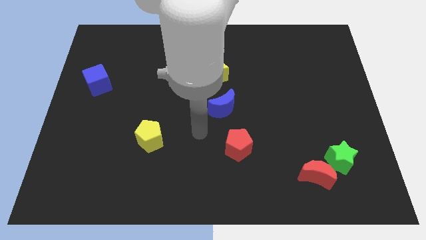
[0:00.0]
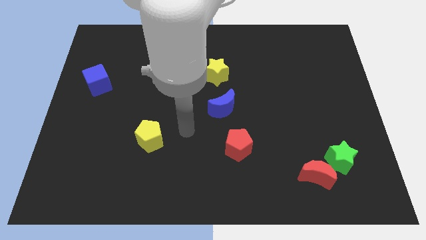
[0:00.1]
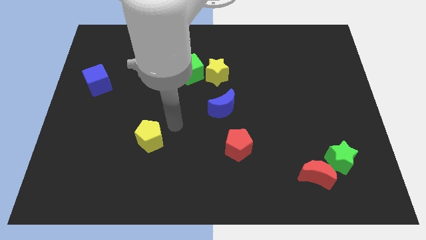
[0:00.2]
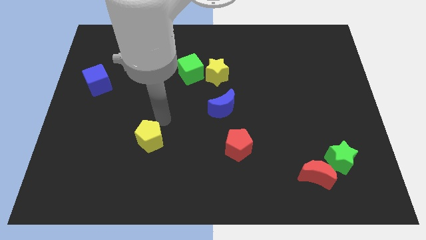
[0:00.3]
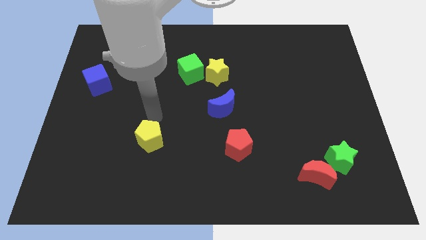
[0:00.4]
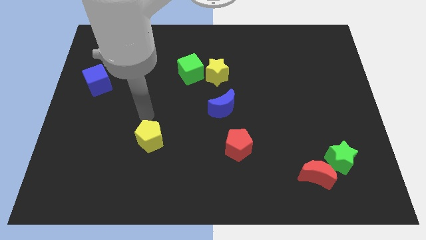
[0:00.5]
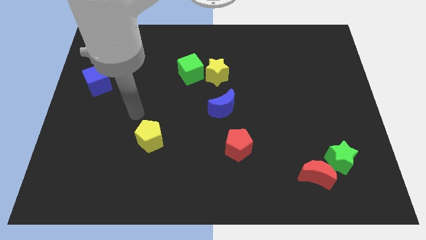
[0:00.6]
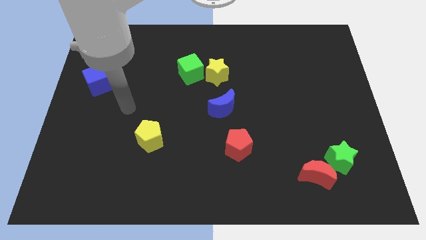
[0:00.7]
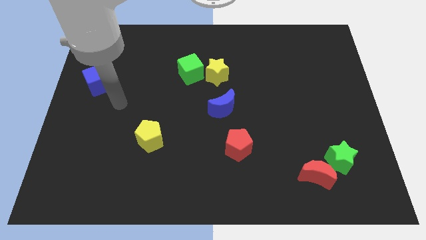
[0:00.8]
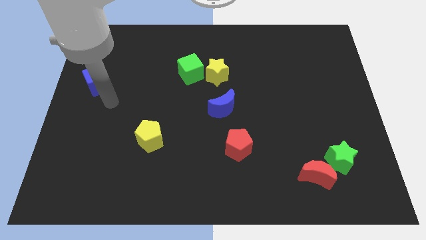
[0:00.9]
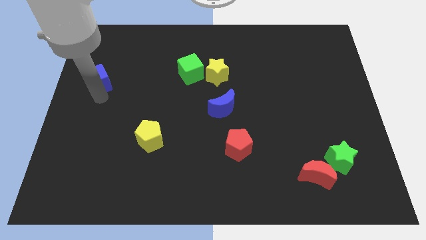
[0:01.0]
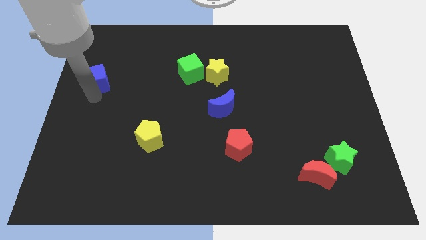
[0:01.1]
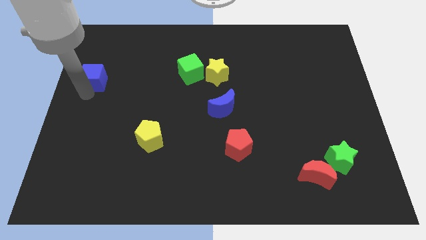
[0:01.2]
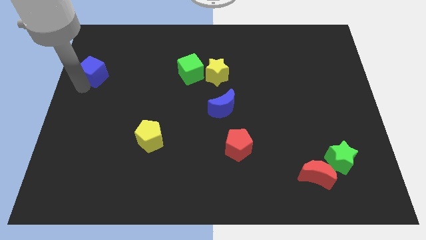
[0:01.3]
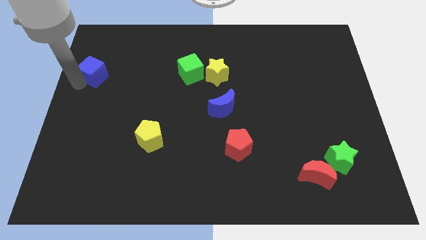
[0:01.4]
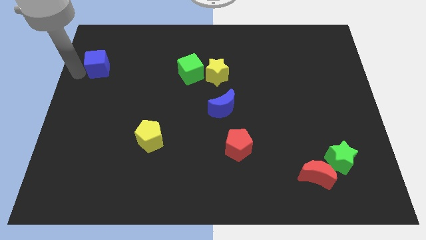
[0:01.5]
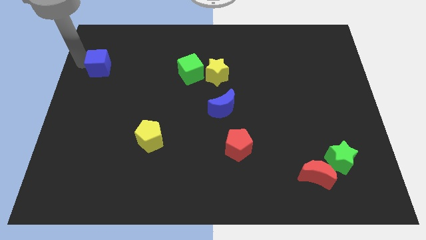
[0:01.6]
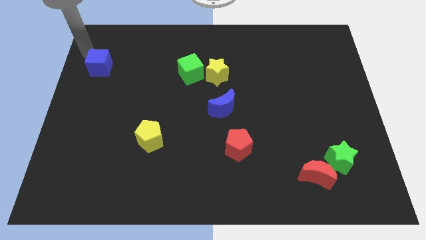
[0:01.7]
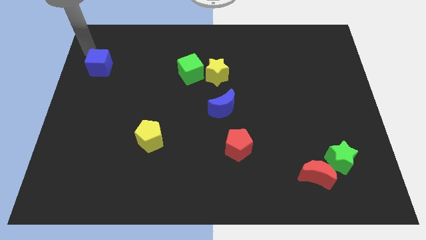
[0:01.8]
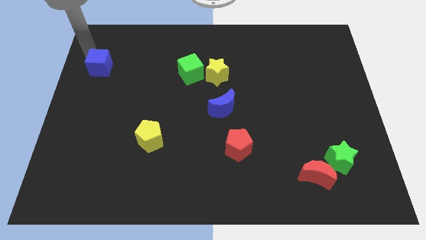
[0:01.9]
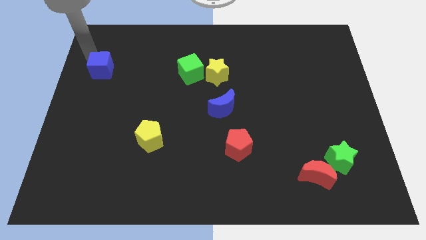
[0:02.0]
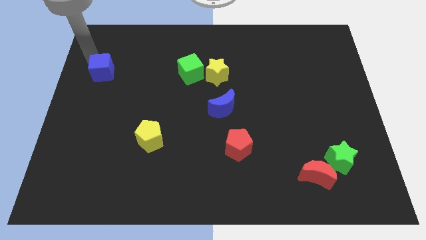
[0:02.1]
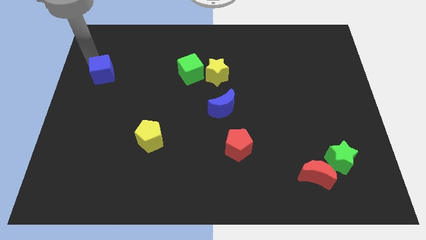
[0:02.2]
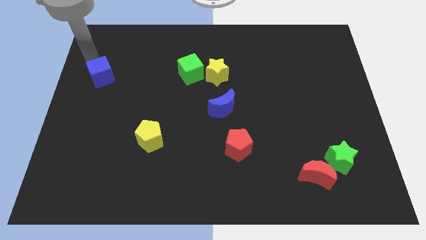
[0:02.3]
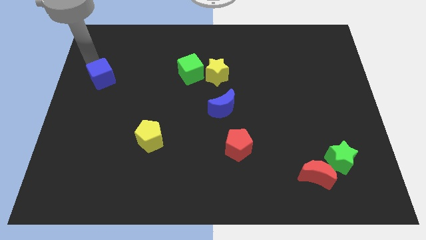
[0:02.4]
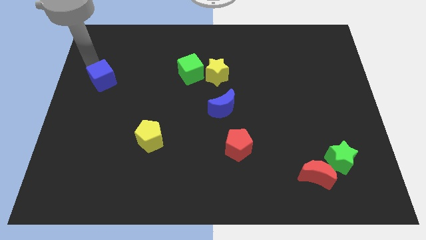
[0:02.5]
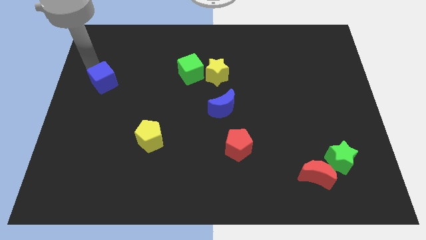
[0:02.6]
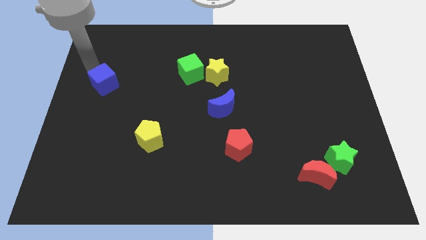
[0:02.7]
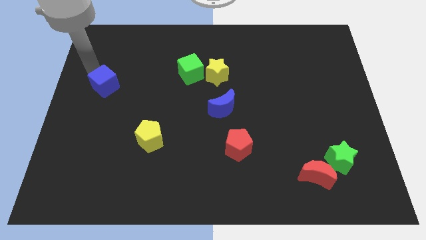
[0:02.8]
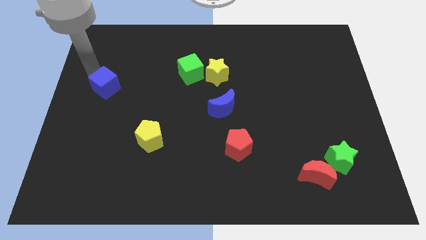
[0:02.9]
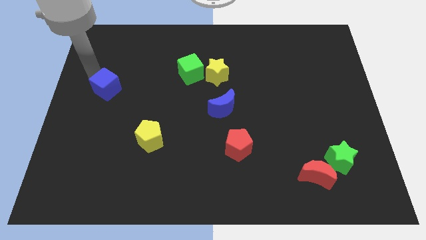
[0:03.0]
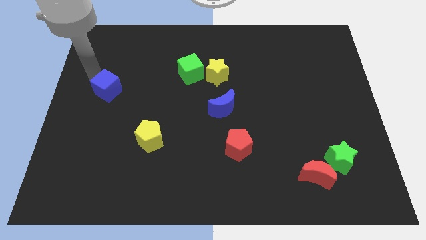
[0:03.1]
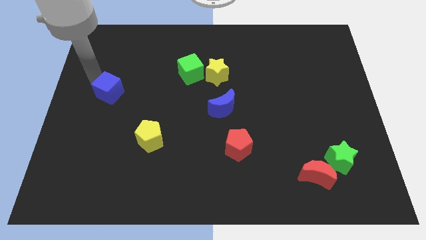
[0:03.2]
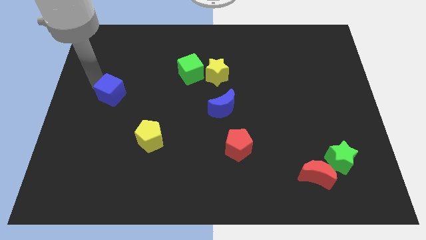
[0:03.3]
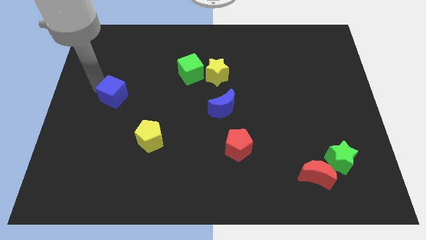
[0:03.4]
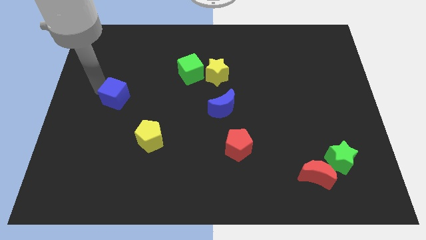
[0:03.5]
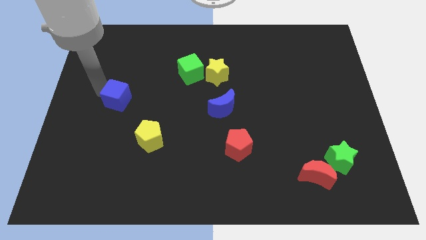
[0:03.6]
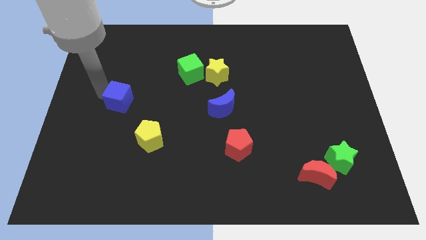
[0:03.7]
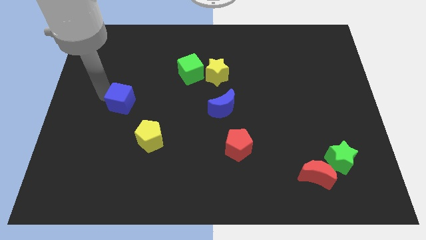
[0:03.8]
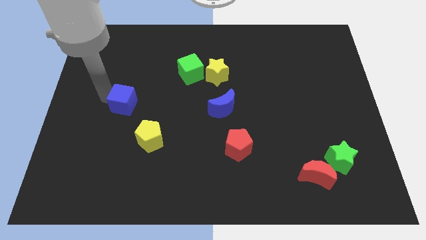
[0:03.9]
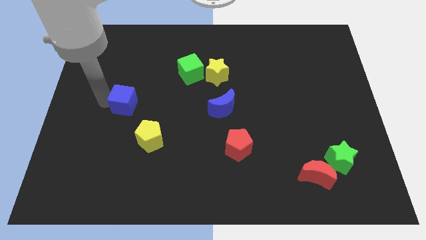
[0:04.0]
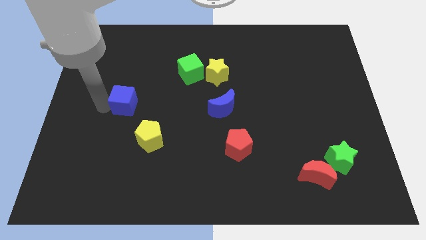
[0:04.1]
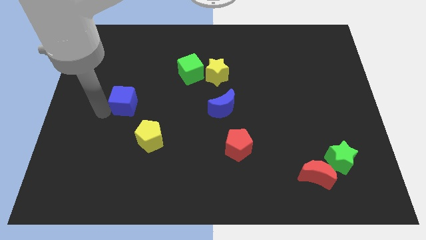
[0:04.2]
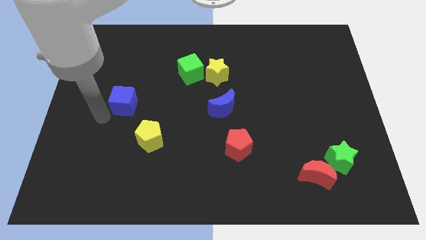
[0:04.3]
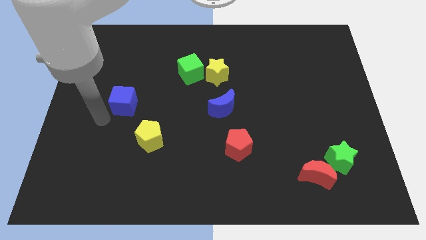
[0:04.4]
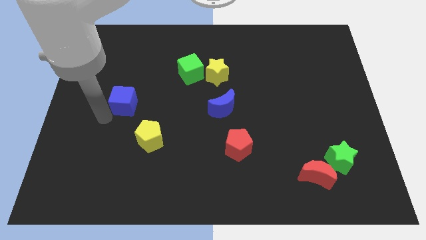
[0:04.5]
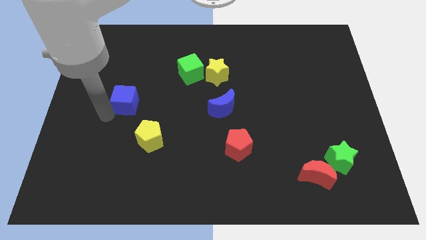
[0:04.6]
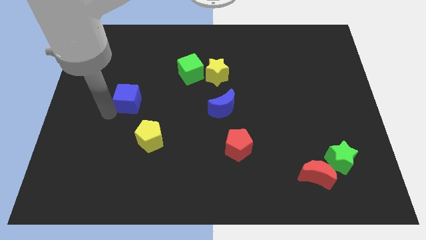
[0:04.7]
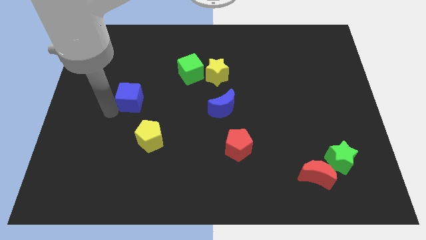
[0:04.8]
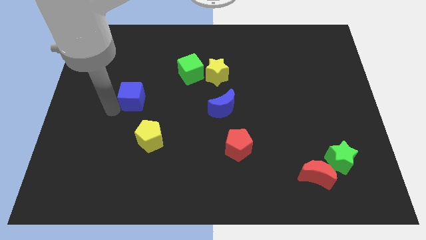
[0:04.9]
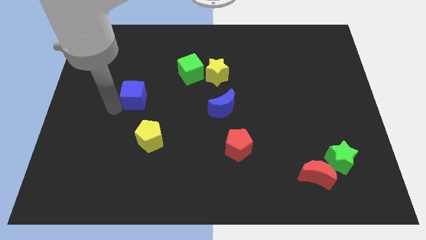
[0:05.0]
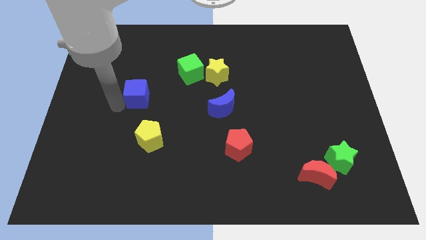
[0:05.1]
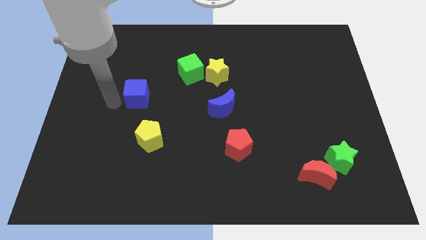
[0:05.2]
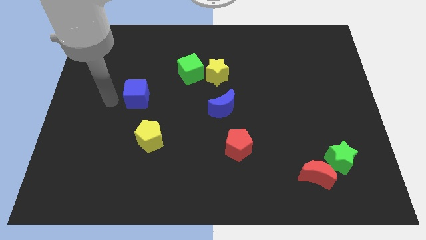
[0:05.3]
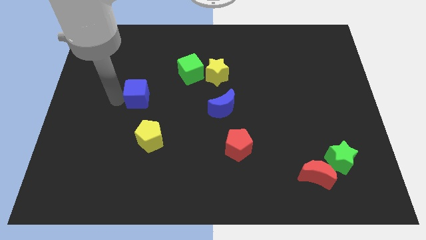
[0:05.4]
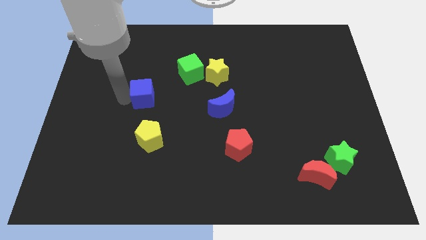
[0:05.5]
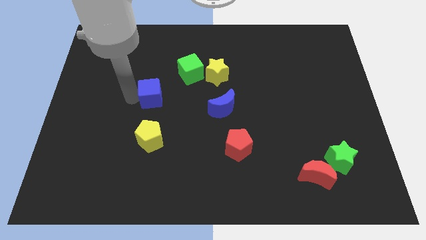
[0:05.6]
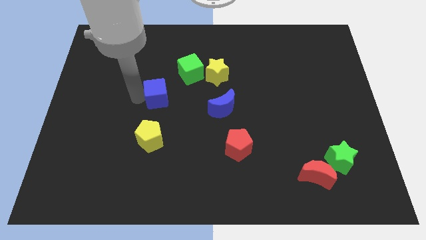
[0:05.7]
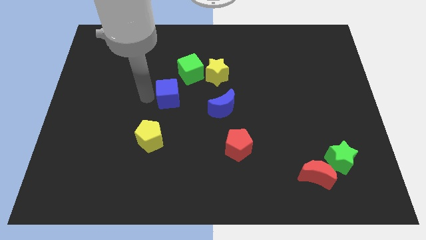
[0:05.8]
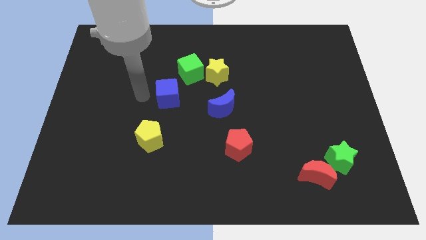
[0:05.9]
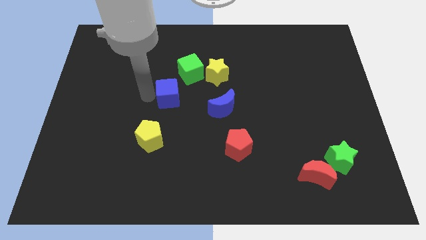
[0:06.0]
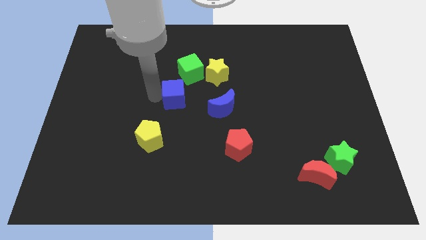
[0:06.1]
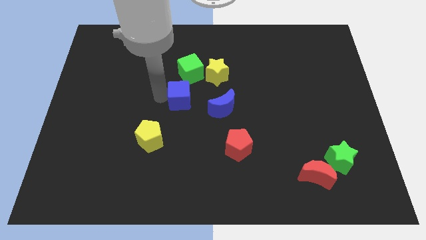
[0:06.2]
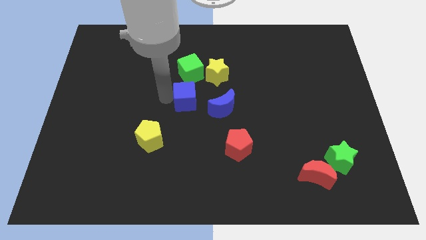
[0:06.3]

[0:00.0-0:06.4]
push the blue cube to the right

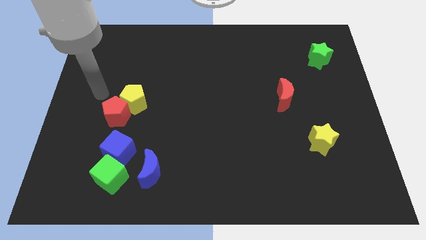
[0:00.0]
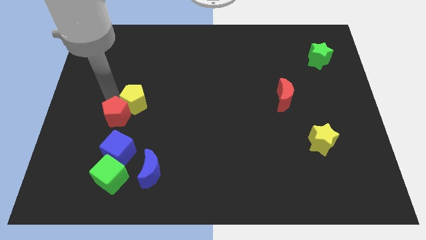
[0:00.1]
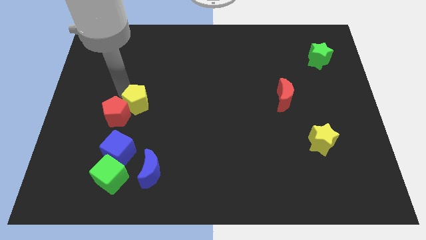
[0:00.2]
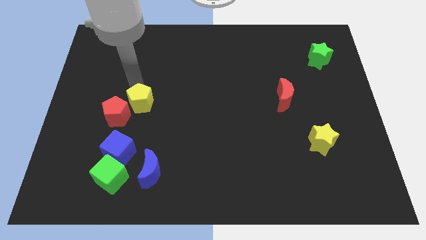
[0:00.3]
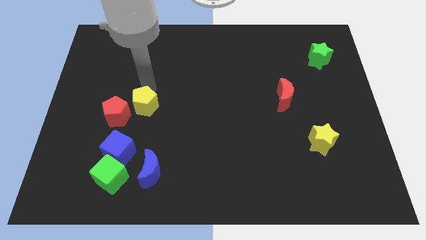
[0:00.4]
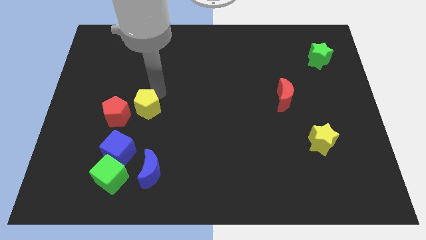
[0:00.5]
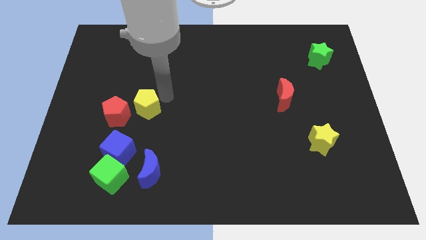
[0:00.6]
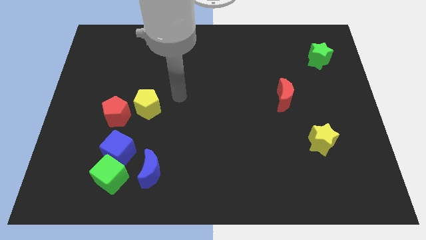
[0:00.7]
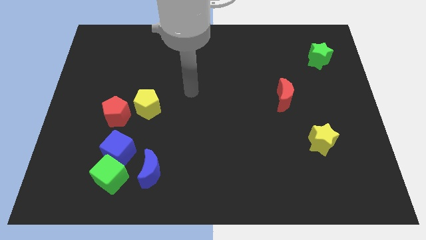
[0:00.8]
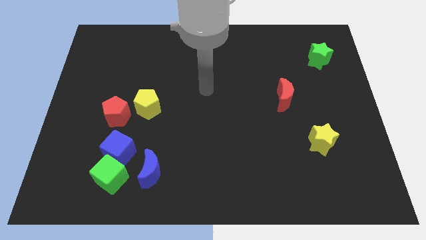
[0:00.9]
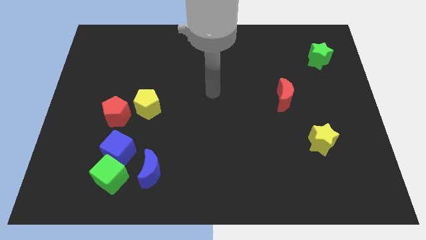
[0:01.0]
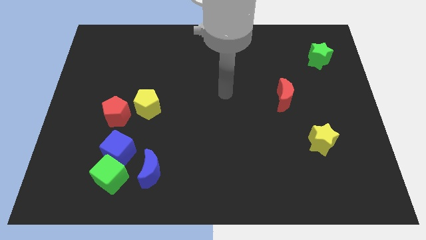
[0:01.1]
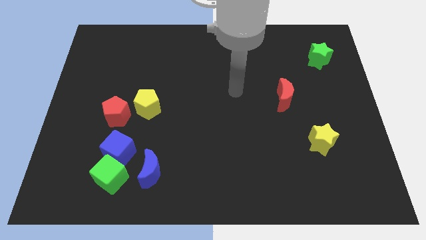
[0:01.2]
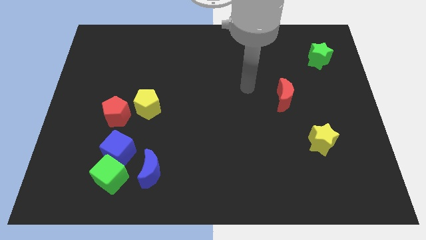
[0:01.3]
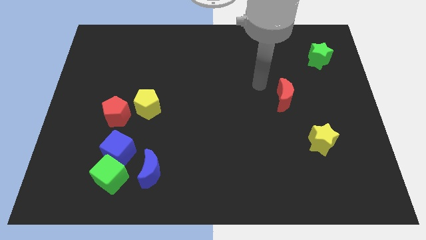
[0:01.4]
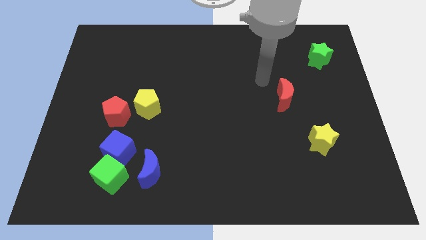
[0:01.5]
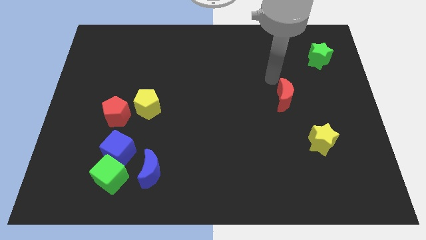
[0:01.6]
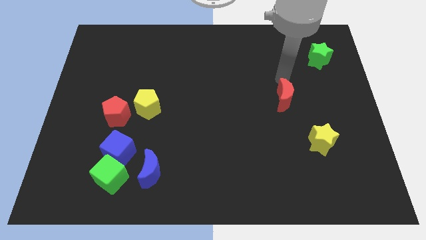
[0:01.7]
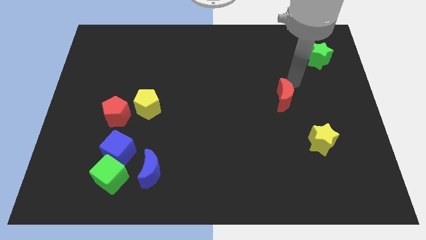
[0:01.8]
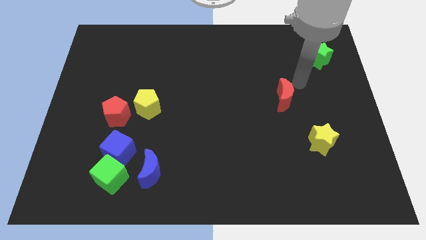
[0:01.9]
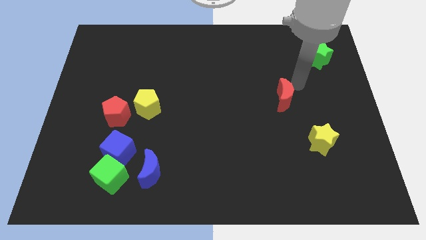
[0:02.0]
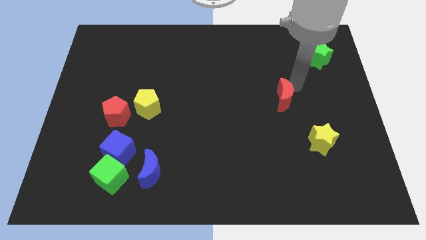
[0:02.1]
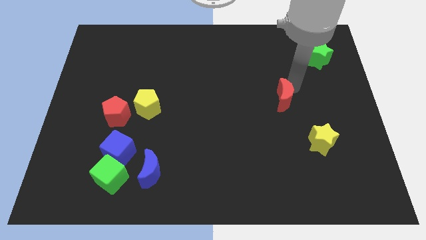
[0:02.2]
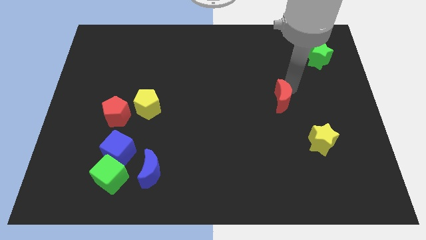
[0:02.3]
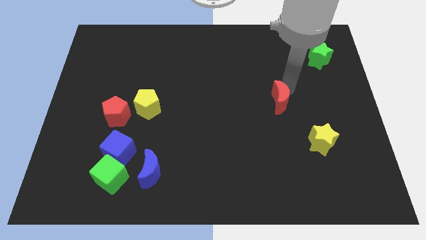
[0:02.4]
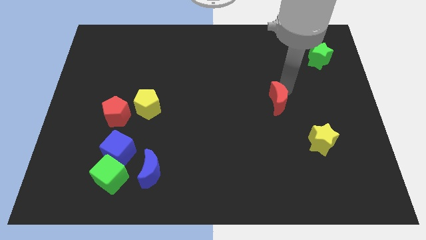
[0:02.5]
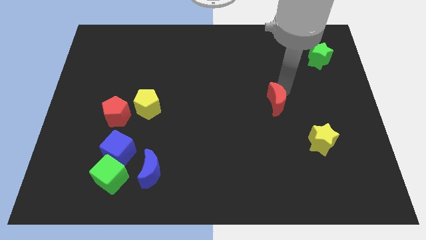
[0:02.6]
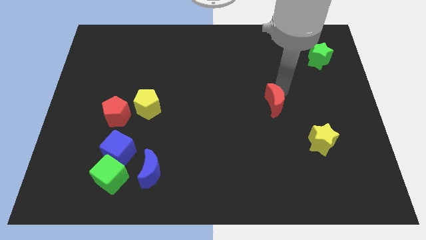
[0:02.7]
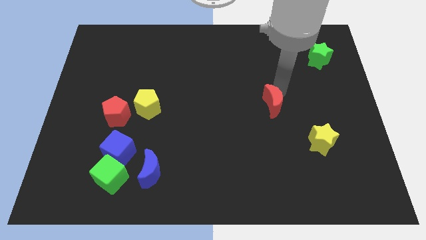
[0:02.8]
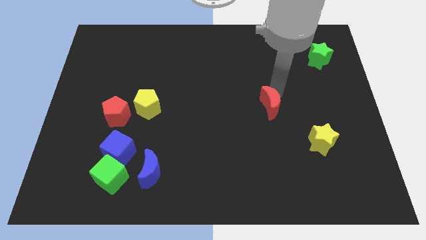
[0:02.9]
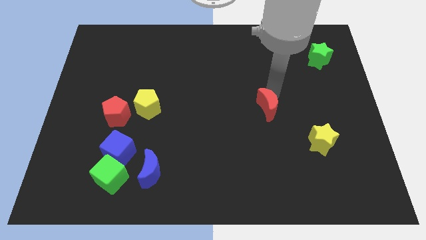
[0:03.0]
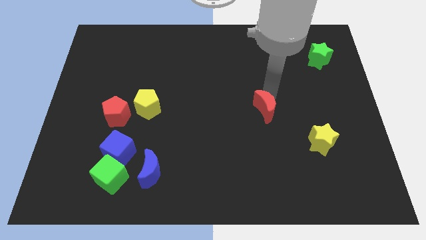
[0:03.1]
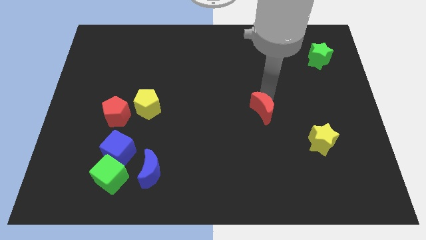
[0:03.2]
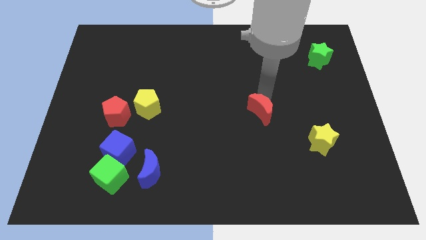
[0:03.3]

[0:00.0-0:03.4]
slide the red moon downwards and to the left a bit
